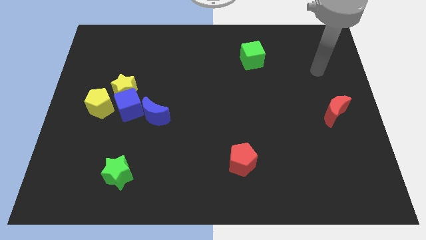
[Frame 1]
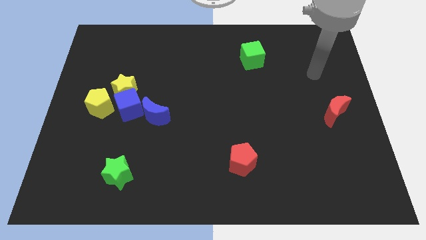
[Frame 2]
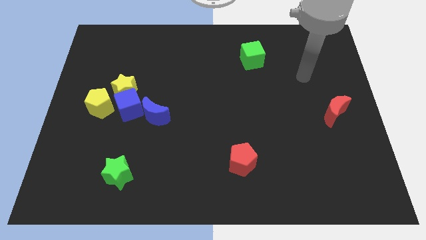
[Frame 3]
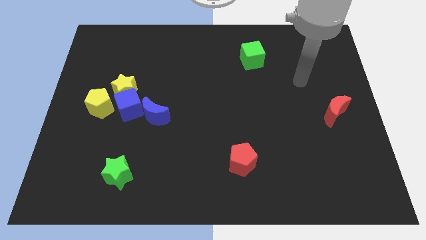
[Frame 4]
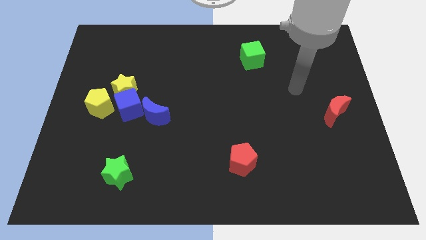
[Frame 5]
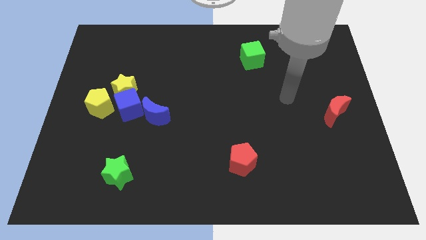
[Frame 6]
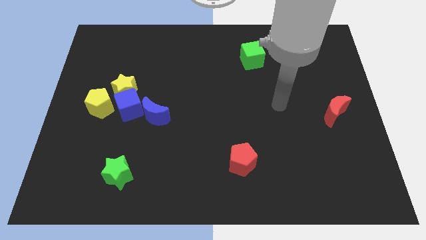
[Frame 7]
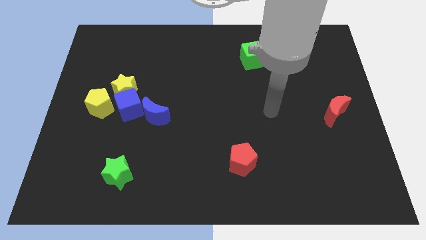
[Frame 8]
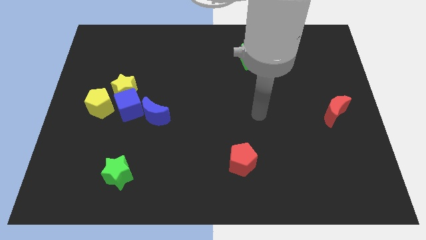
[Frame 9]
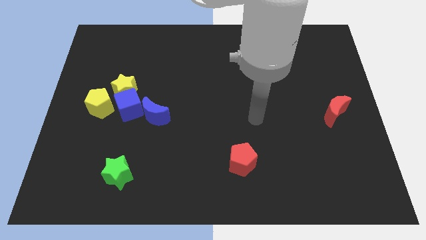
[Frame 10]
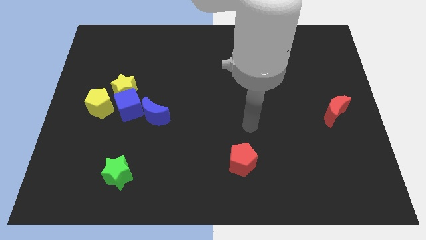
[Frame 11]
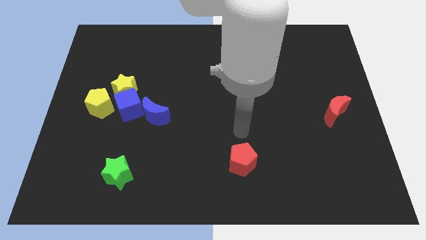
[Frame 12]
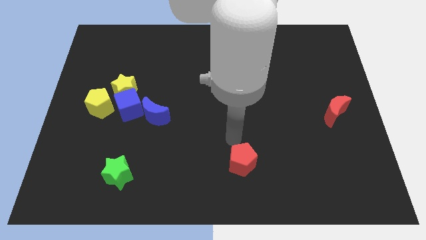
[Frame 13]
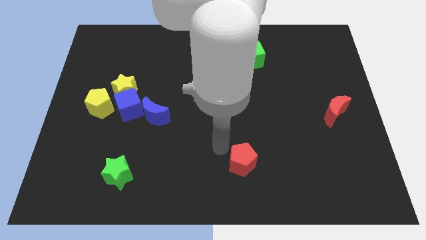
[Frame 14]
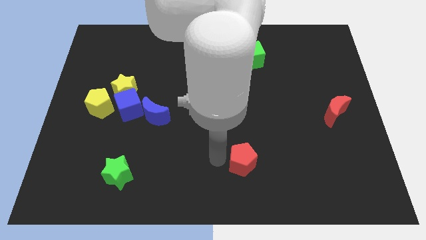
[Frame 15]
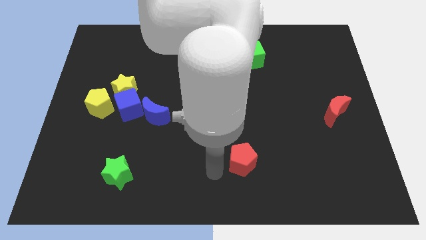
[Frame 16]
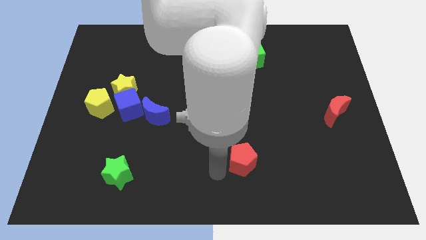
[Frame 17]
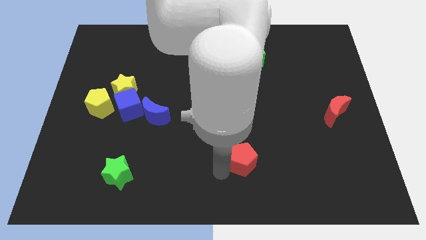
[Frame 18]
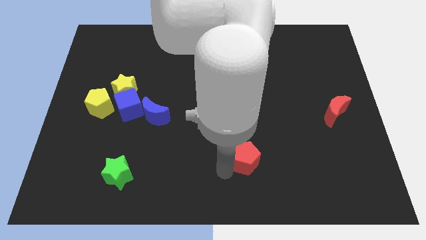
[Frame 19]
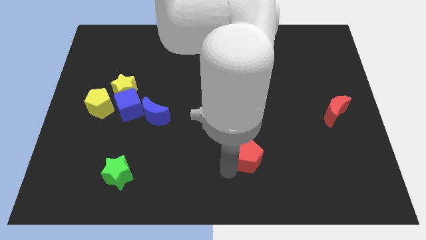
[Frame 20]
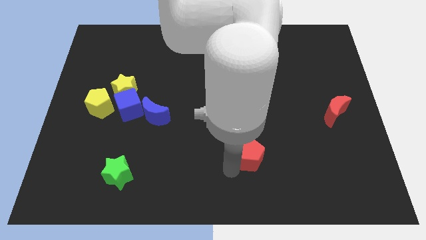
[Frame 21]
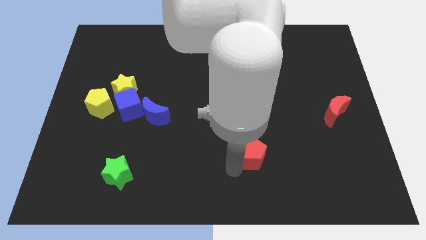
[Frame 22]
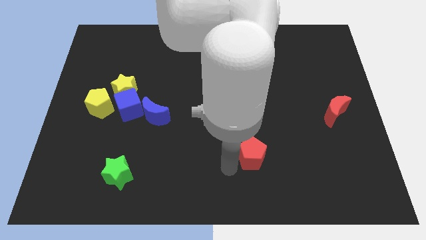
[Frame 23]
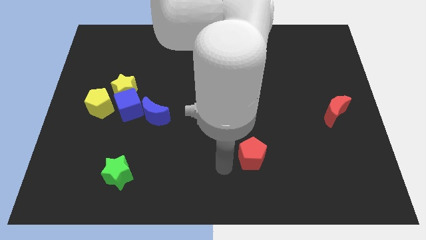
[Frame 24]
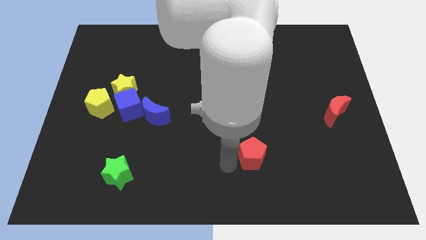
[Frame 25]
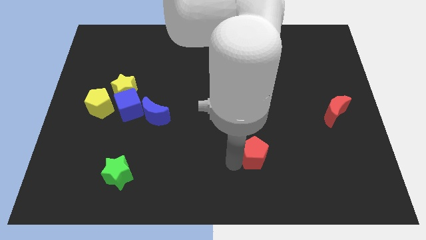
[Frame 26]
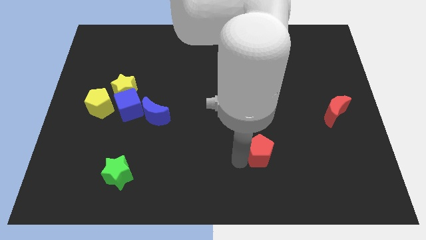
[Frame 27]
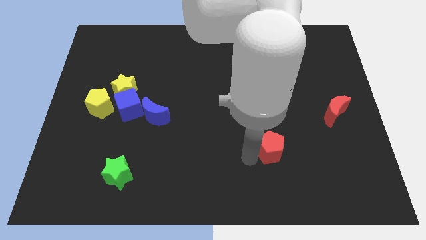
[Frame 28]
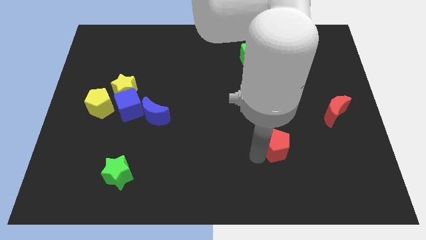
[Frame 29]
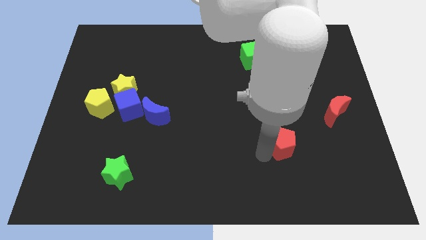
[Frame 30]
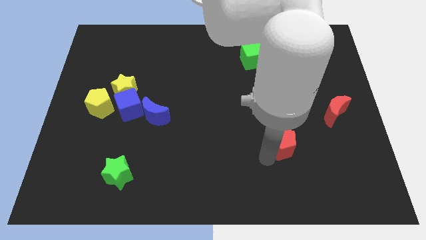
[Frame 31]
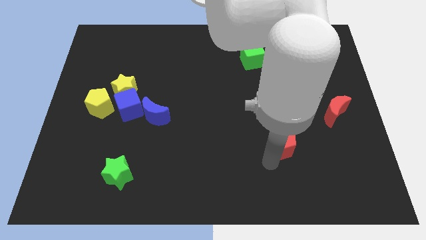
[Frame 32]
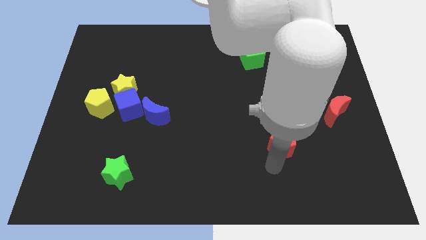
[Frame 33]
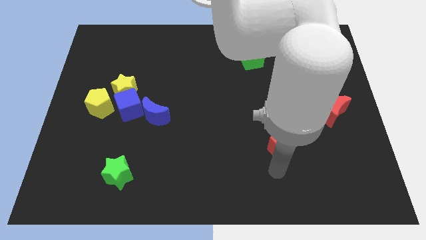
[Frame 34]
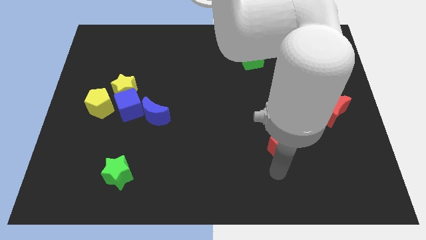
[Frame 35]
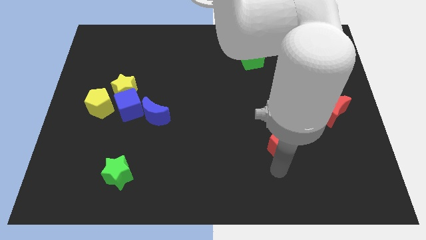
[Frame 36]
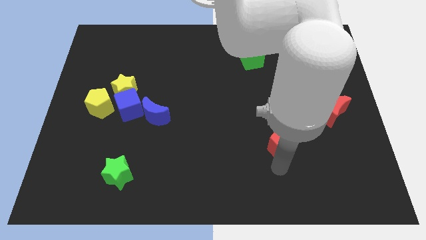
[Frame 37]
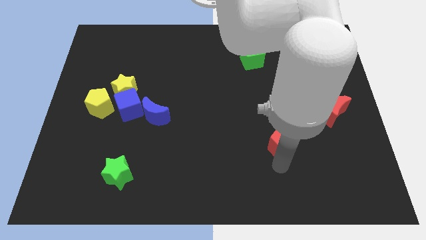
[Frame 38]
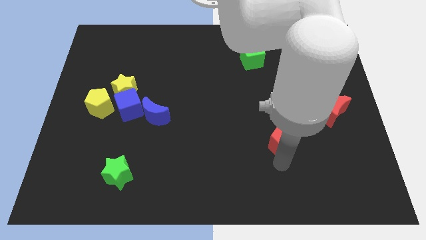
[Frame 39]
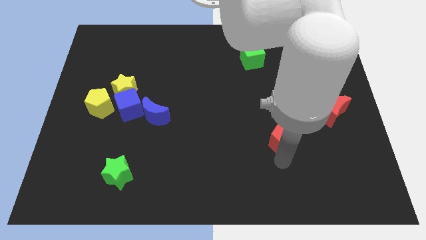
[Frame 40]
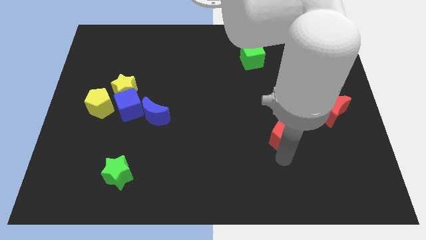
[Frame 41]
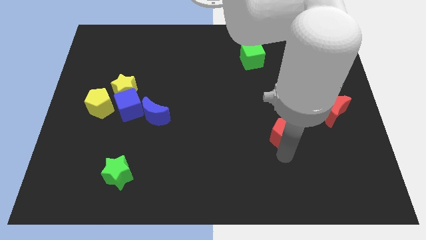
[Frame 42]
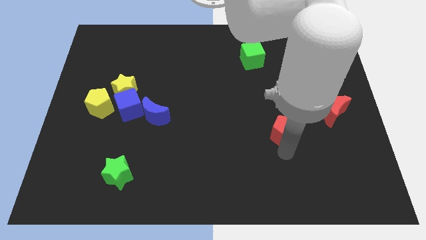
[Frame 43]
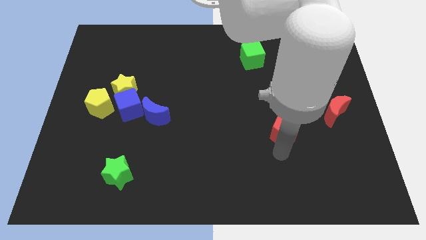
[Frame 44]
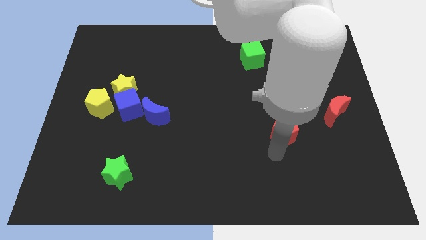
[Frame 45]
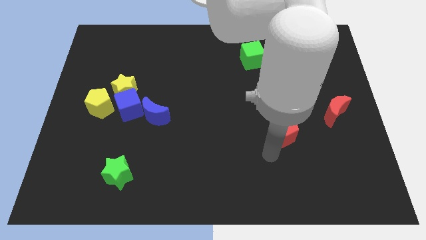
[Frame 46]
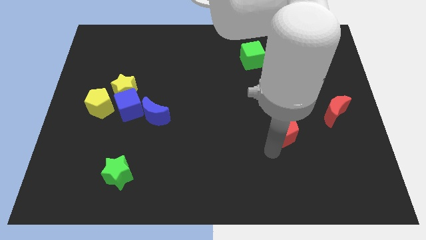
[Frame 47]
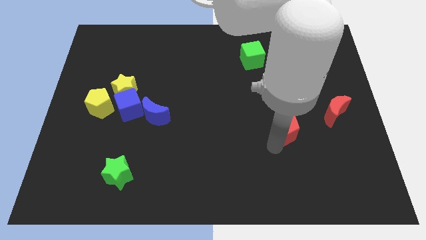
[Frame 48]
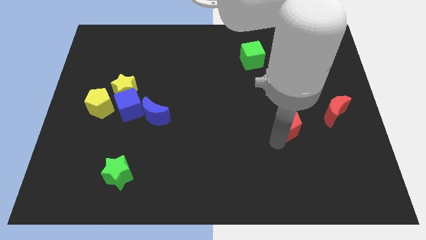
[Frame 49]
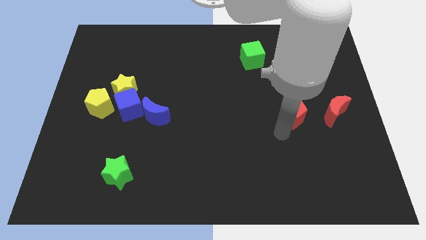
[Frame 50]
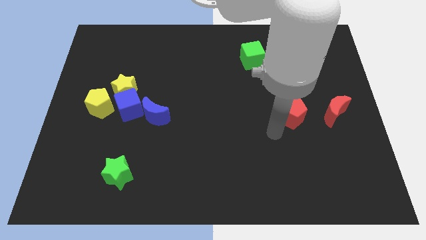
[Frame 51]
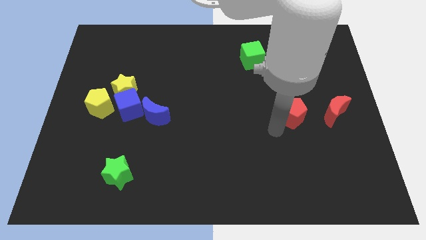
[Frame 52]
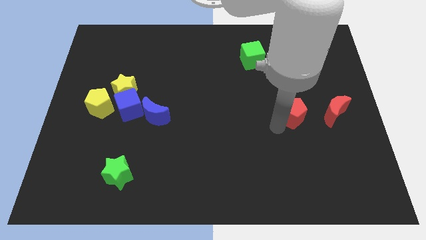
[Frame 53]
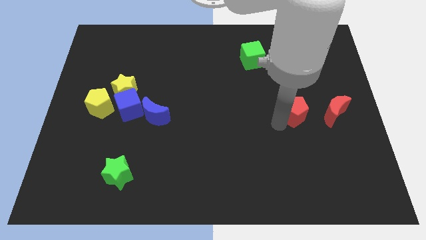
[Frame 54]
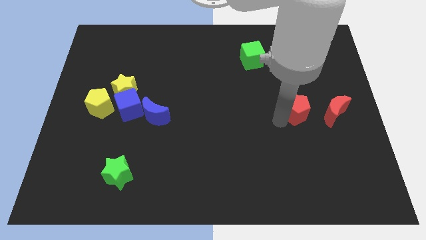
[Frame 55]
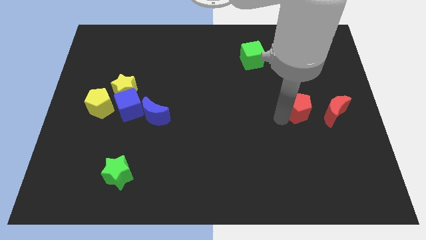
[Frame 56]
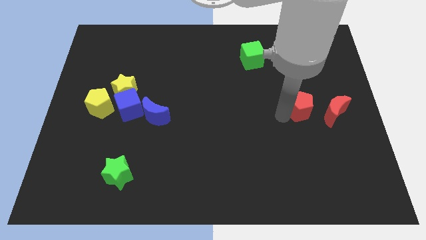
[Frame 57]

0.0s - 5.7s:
move the red pentagon up and to the right diagonally

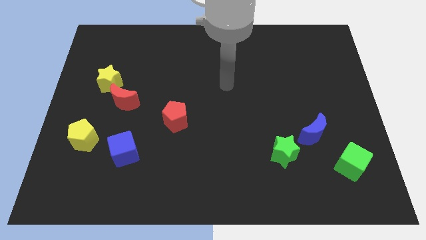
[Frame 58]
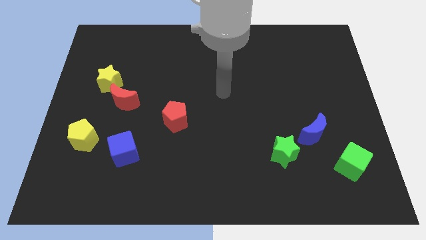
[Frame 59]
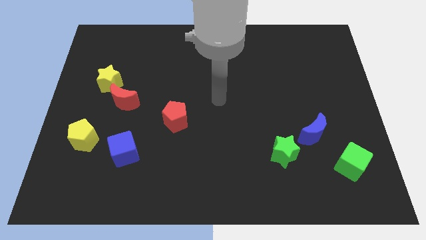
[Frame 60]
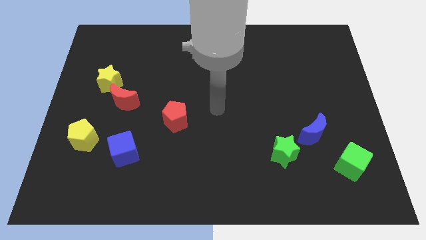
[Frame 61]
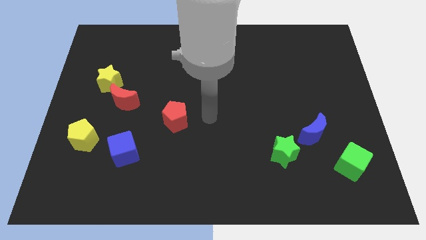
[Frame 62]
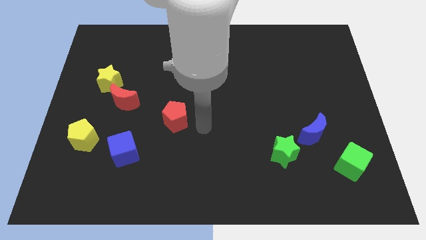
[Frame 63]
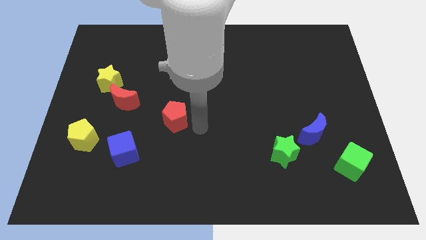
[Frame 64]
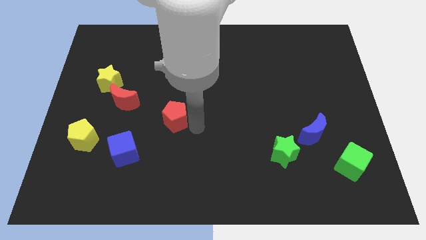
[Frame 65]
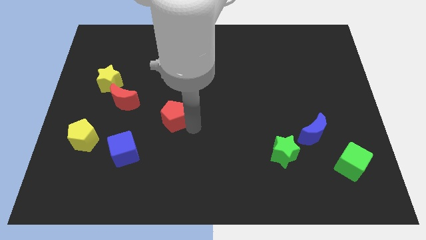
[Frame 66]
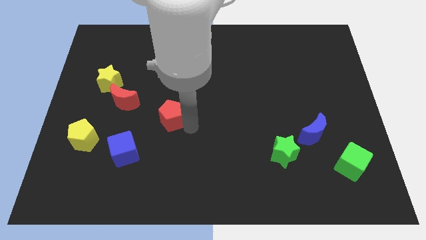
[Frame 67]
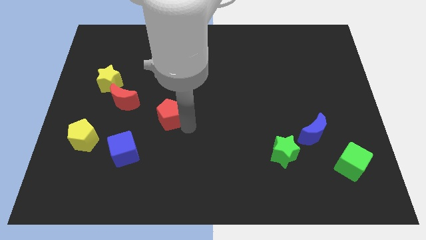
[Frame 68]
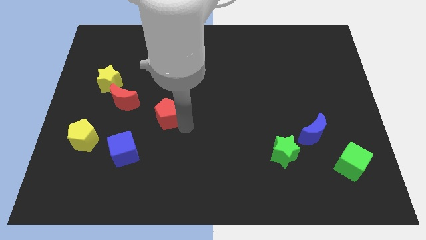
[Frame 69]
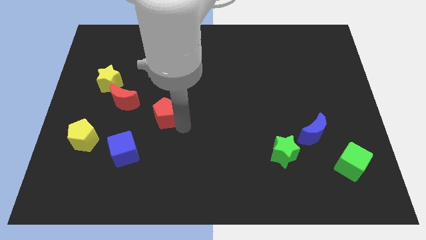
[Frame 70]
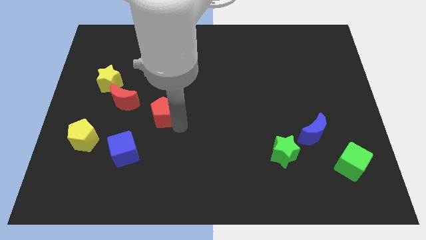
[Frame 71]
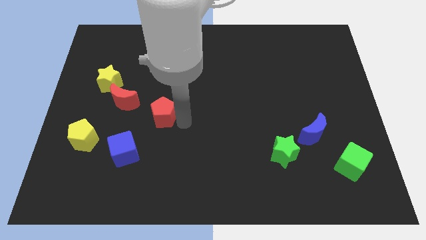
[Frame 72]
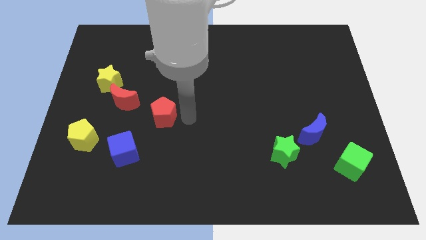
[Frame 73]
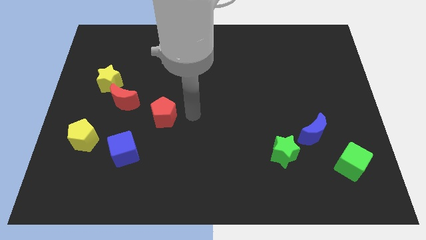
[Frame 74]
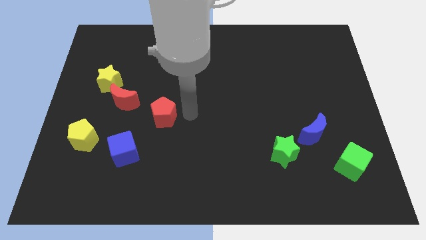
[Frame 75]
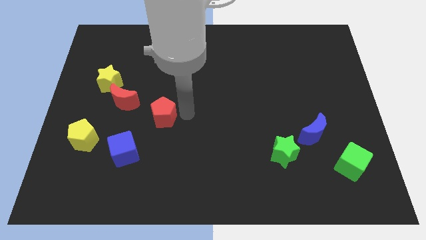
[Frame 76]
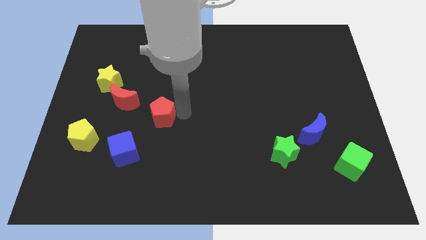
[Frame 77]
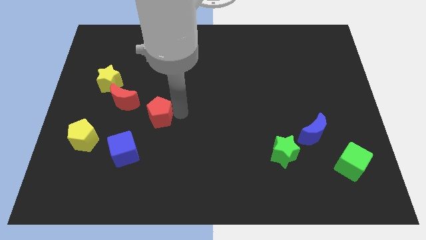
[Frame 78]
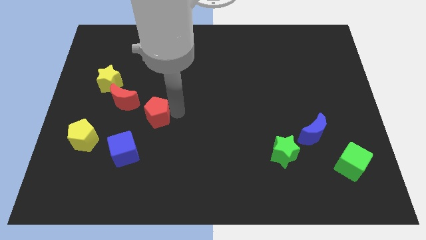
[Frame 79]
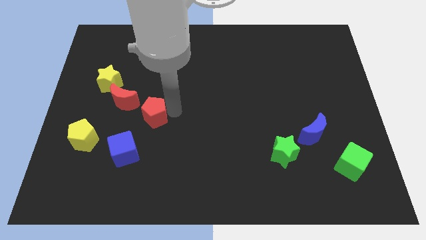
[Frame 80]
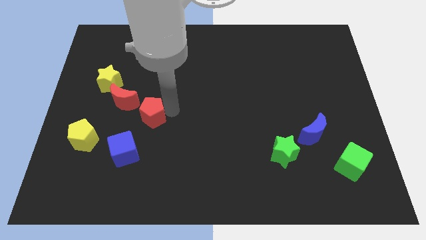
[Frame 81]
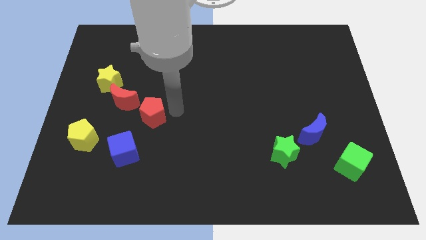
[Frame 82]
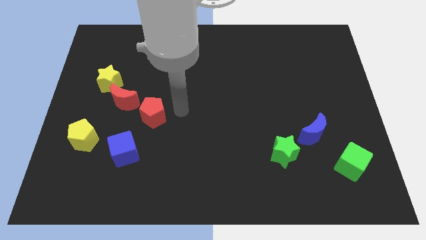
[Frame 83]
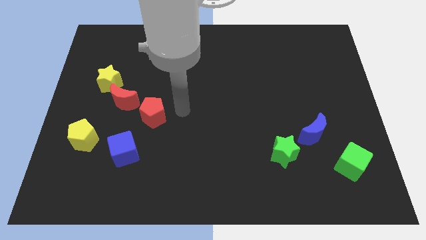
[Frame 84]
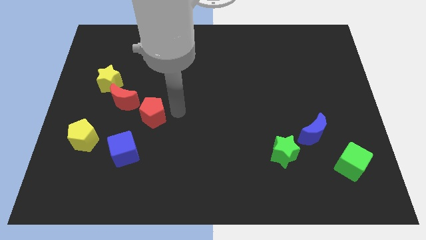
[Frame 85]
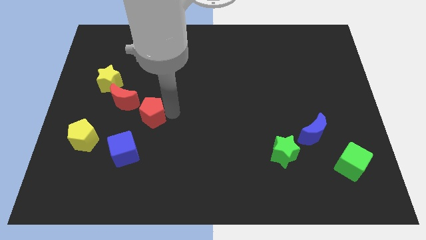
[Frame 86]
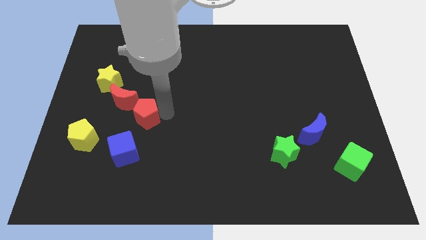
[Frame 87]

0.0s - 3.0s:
push the red pentagon left a little
